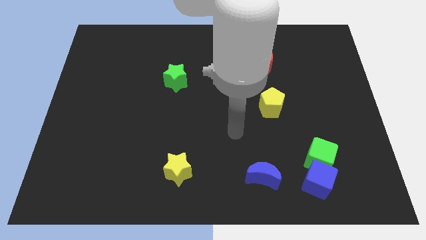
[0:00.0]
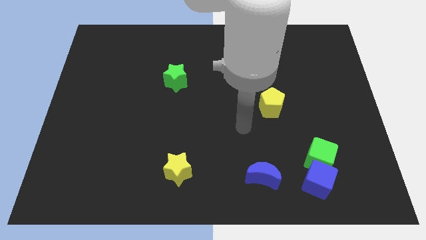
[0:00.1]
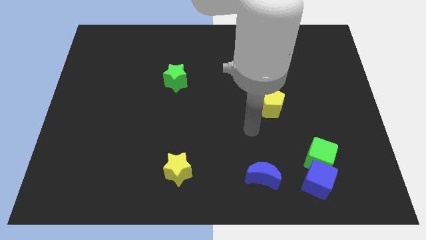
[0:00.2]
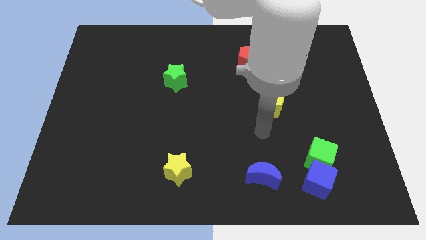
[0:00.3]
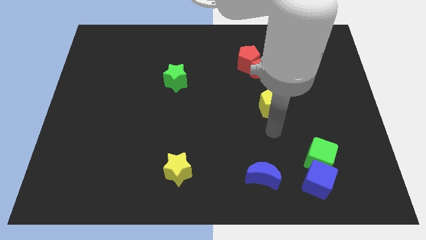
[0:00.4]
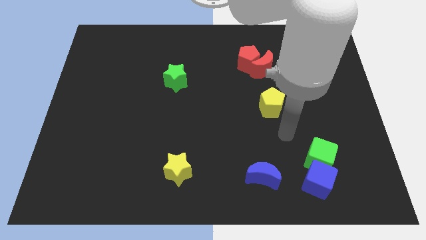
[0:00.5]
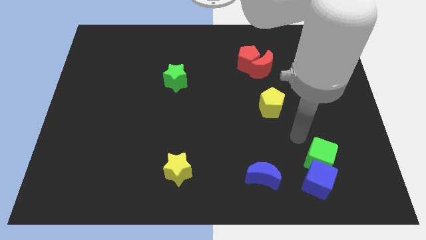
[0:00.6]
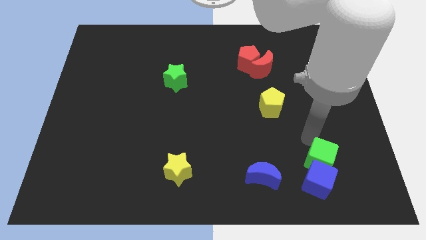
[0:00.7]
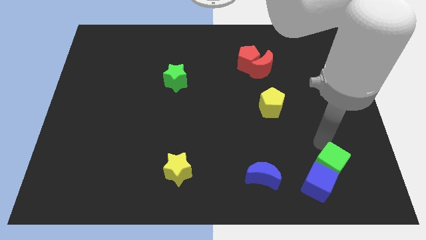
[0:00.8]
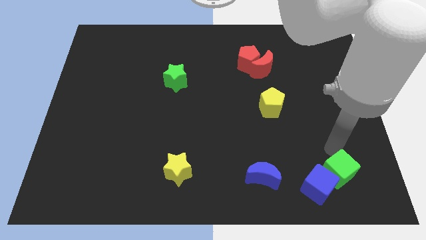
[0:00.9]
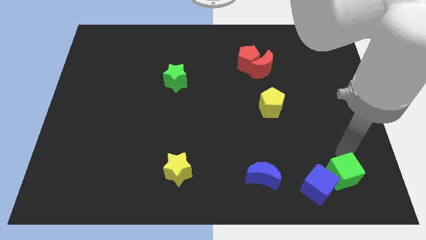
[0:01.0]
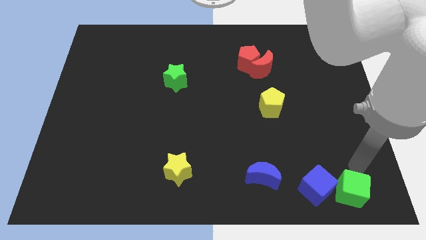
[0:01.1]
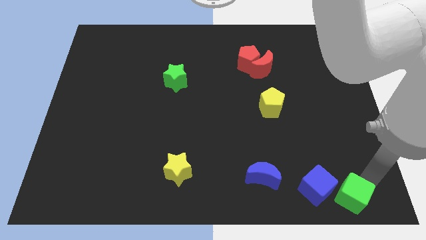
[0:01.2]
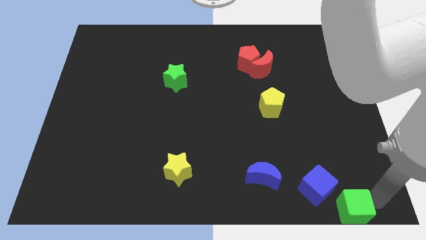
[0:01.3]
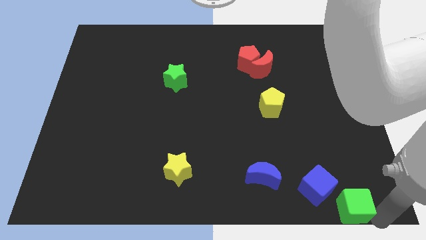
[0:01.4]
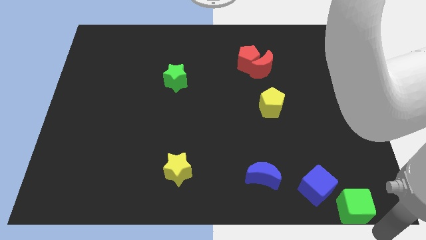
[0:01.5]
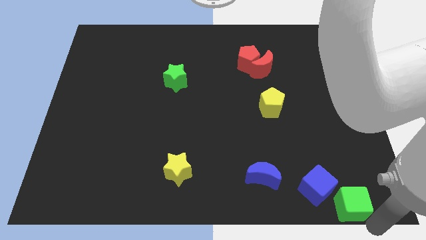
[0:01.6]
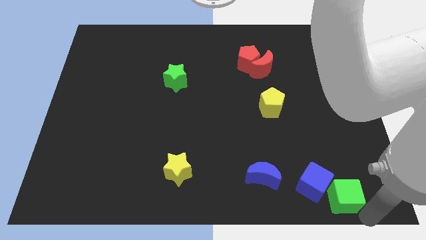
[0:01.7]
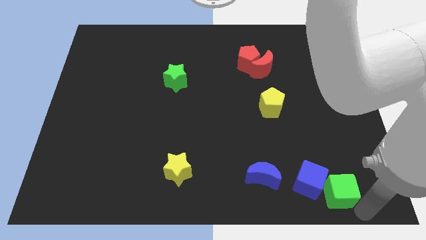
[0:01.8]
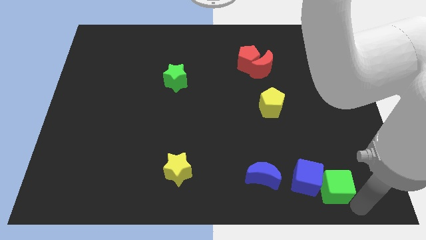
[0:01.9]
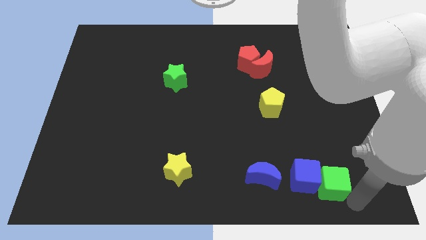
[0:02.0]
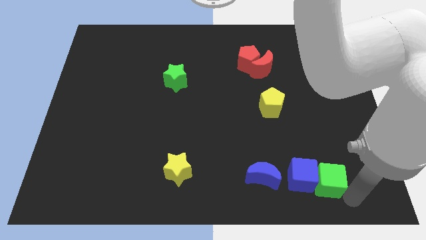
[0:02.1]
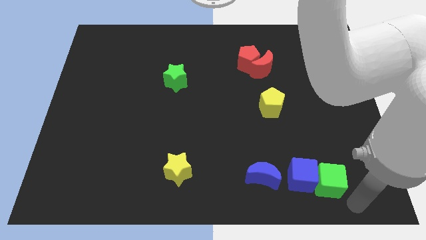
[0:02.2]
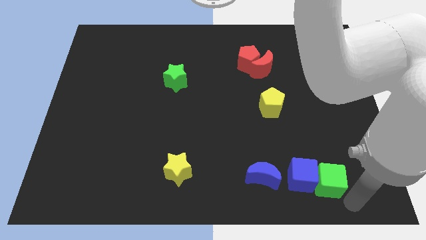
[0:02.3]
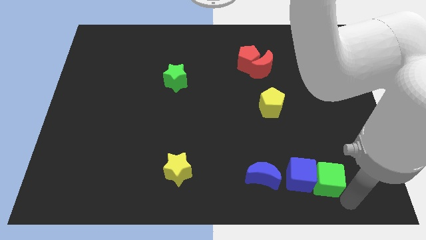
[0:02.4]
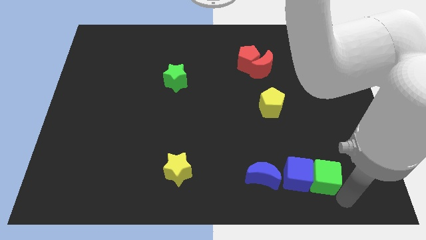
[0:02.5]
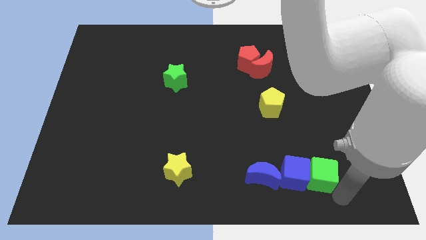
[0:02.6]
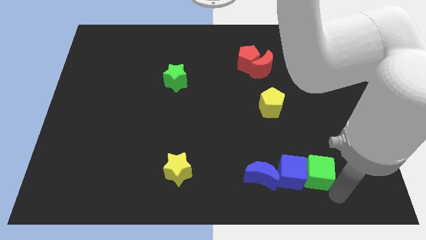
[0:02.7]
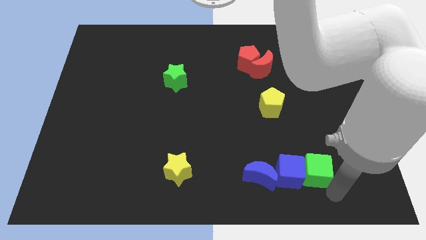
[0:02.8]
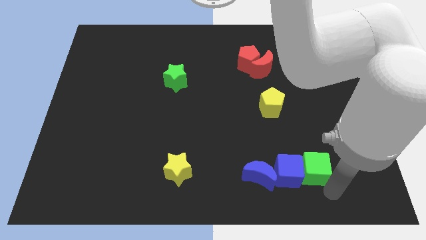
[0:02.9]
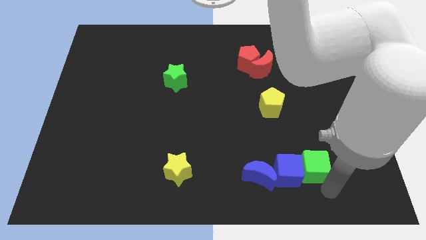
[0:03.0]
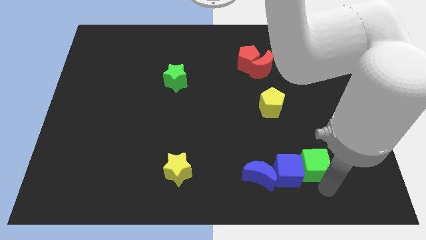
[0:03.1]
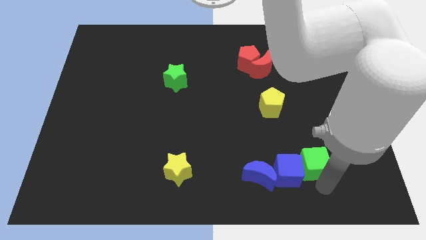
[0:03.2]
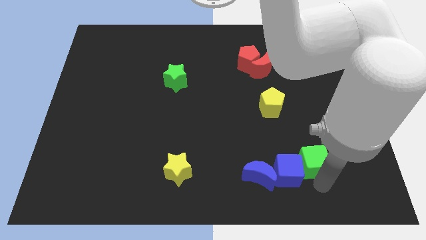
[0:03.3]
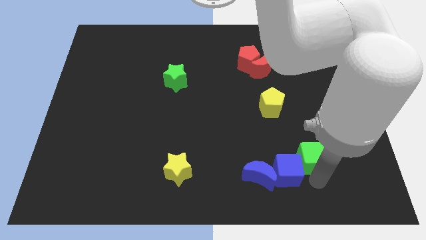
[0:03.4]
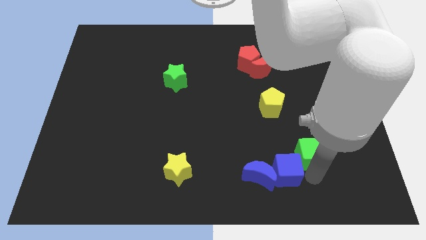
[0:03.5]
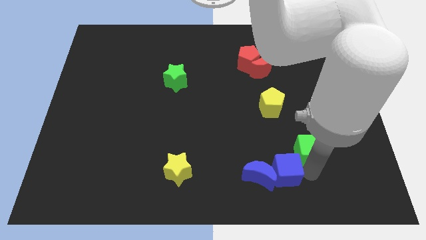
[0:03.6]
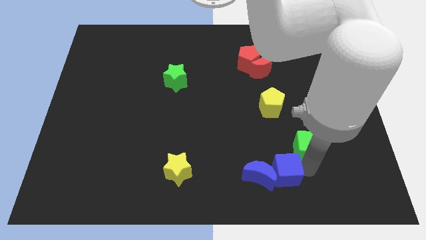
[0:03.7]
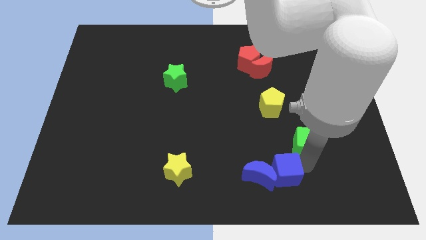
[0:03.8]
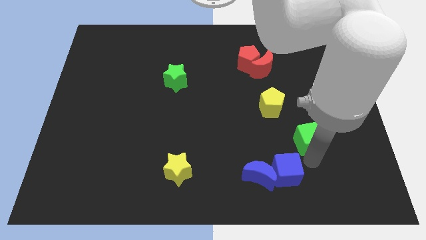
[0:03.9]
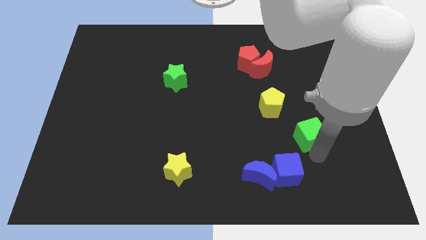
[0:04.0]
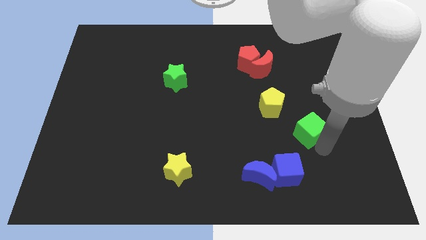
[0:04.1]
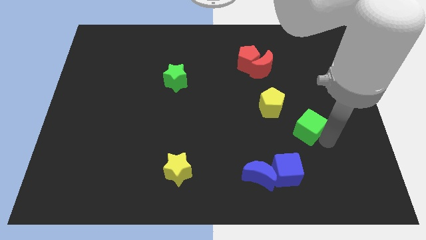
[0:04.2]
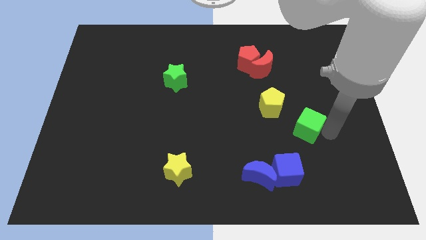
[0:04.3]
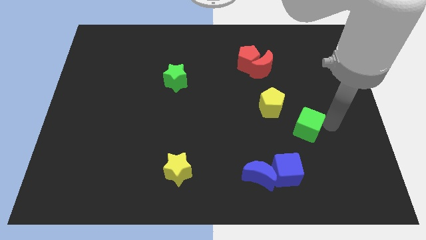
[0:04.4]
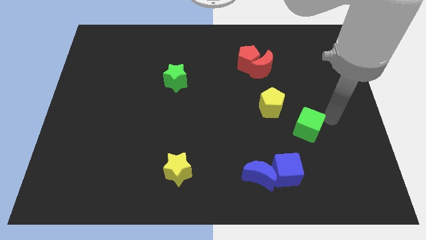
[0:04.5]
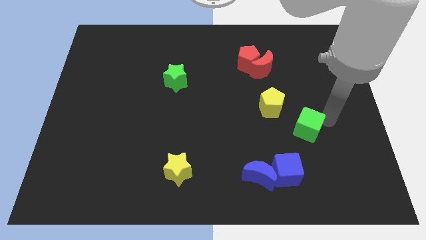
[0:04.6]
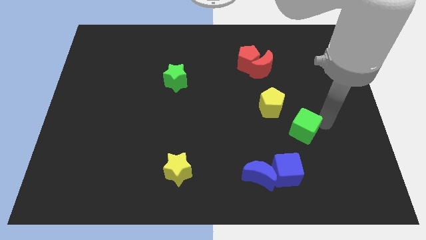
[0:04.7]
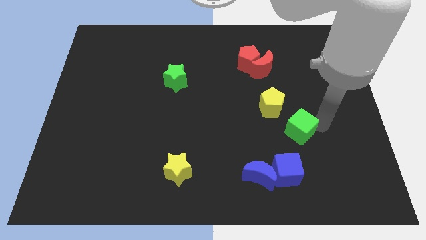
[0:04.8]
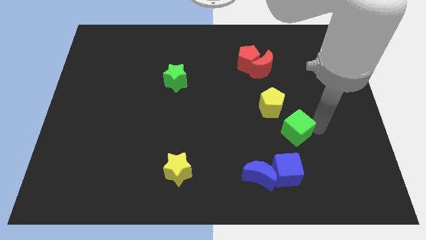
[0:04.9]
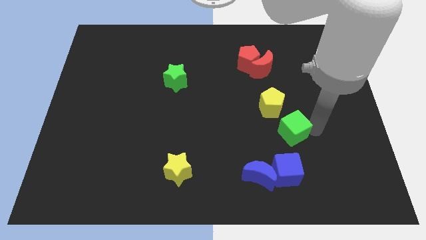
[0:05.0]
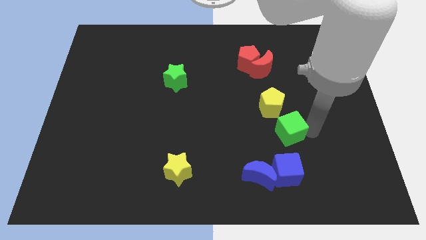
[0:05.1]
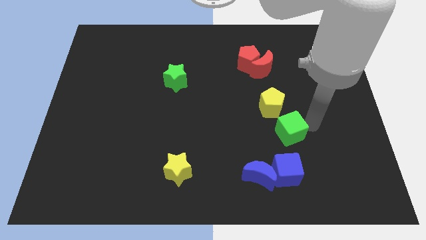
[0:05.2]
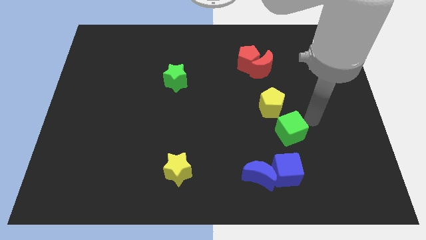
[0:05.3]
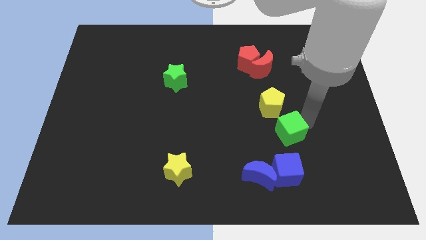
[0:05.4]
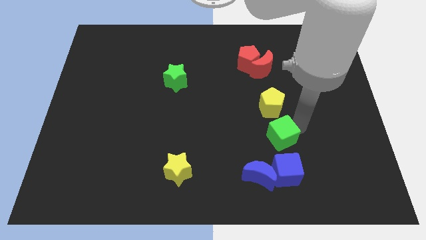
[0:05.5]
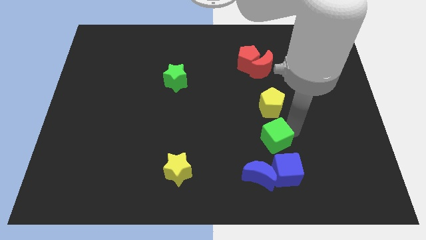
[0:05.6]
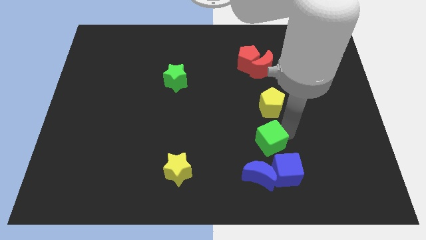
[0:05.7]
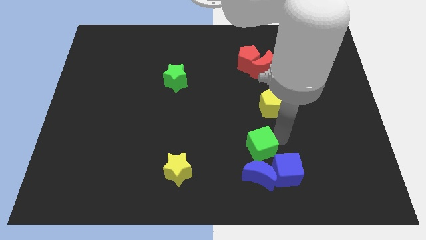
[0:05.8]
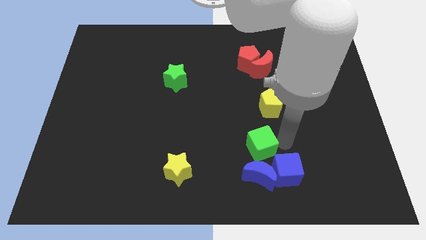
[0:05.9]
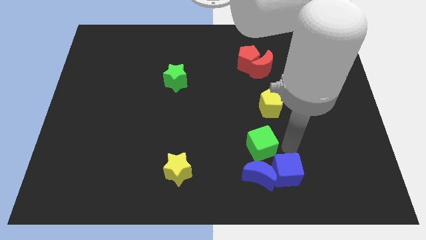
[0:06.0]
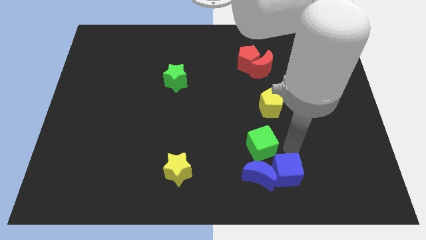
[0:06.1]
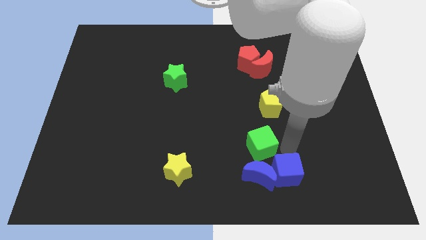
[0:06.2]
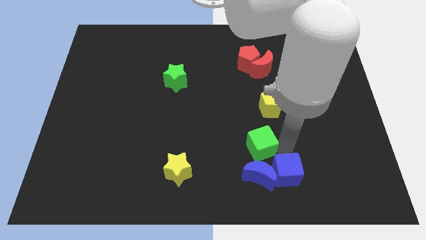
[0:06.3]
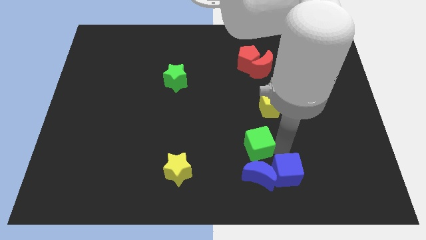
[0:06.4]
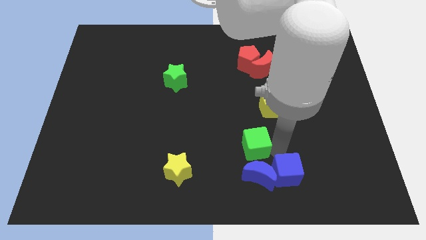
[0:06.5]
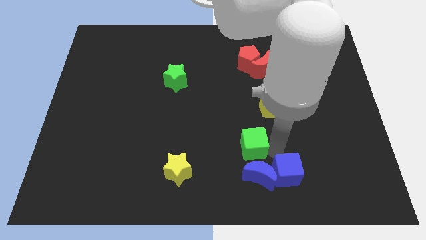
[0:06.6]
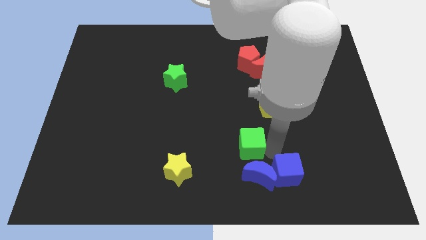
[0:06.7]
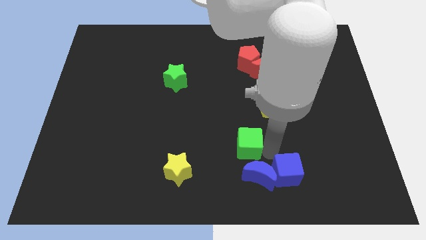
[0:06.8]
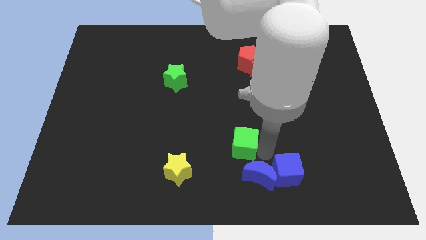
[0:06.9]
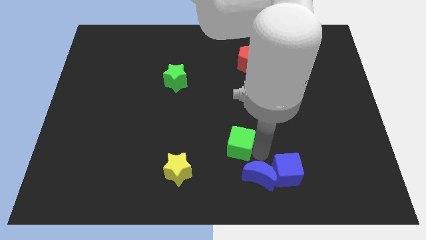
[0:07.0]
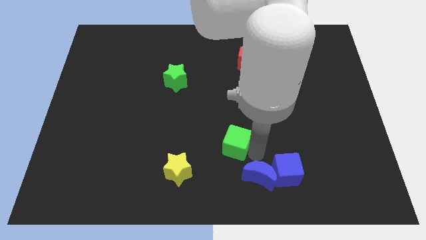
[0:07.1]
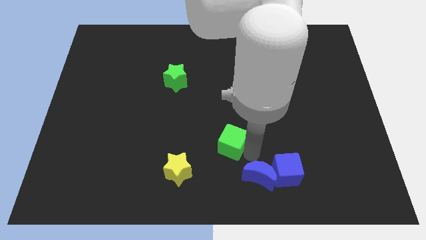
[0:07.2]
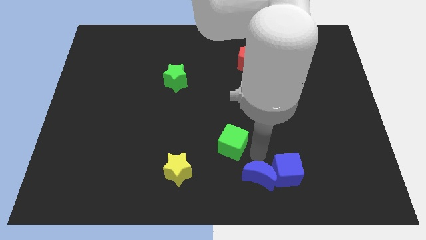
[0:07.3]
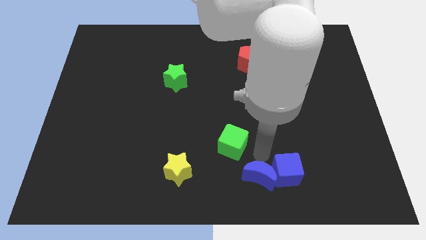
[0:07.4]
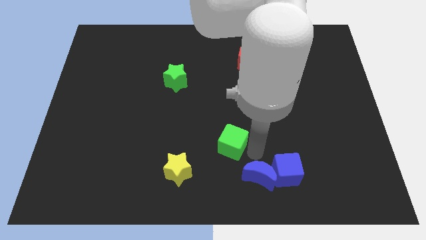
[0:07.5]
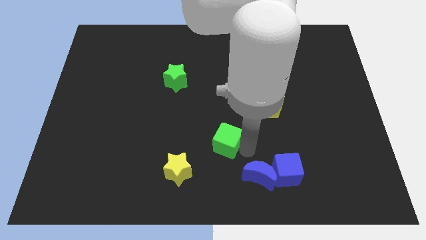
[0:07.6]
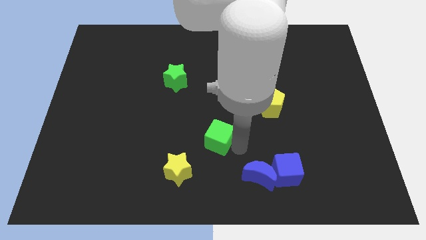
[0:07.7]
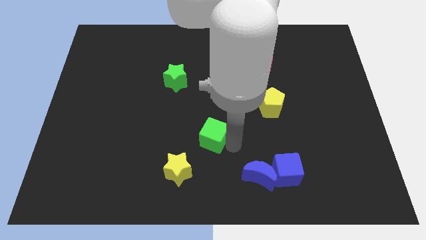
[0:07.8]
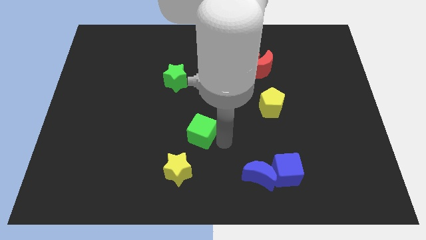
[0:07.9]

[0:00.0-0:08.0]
put the green cube above the yellow star
